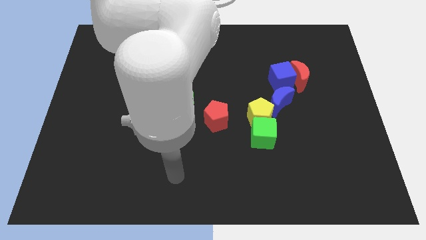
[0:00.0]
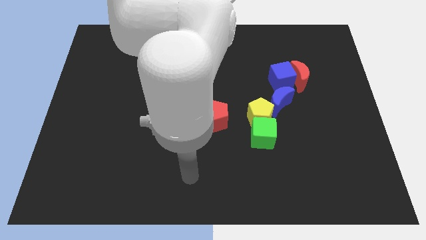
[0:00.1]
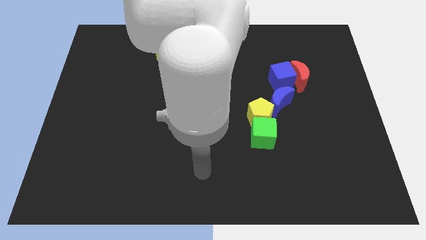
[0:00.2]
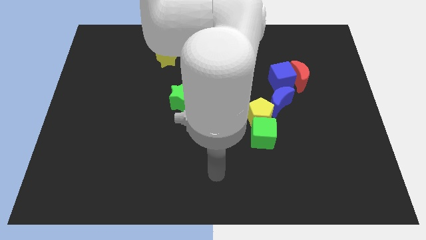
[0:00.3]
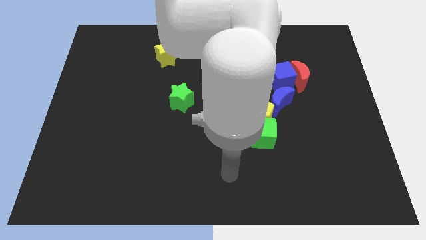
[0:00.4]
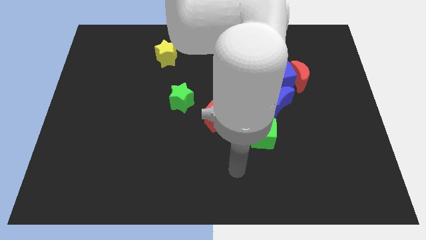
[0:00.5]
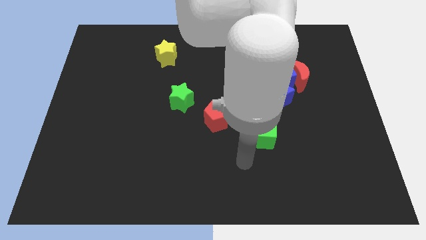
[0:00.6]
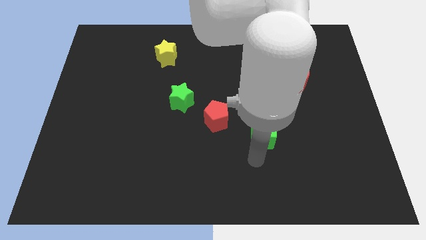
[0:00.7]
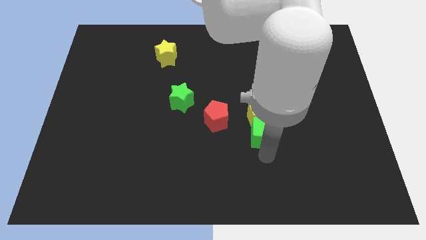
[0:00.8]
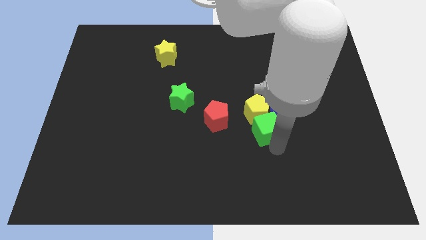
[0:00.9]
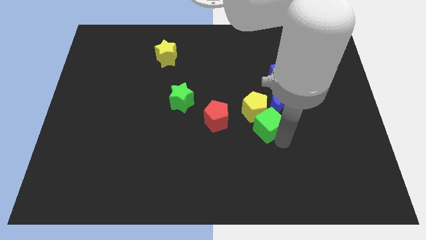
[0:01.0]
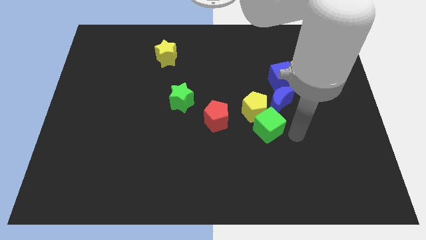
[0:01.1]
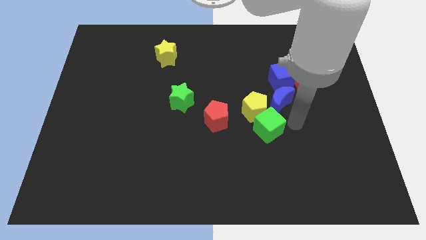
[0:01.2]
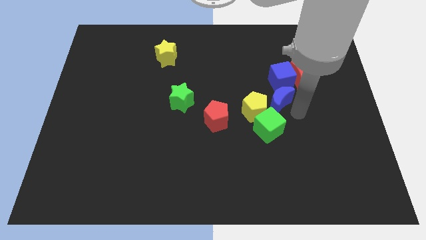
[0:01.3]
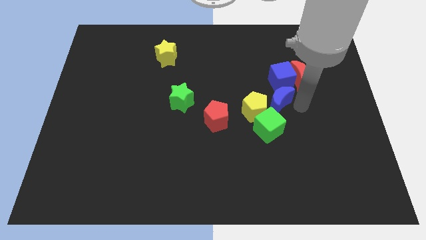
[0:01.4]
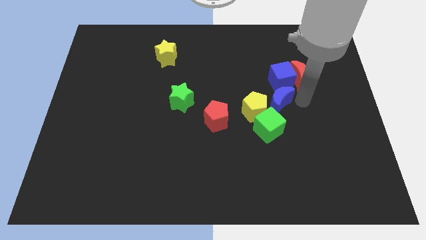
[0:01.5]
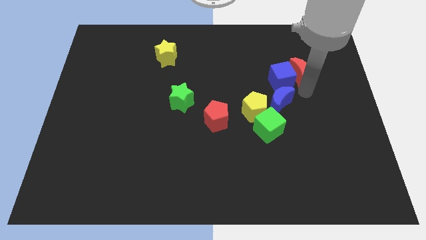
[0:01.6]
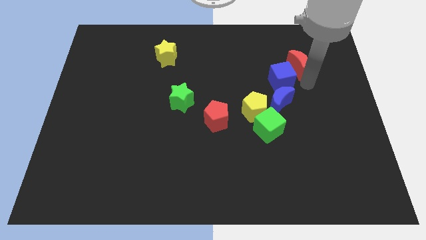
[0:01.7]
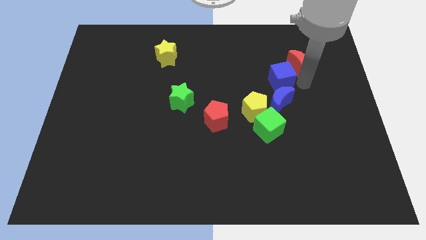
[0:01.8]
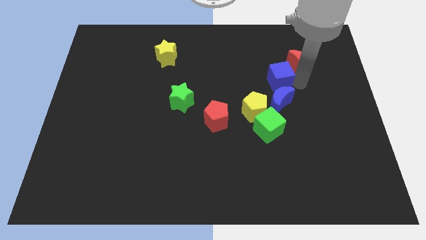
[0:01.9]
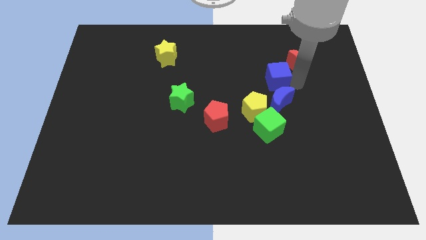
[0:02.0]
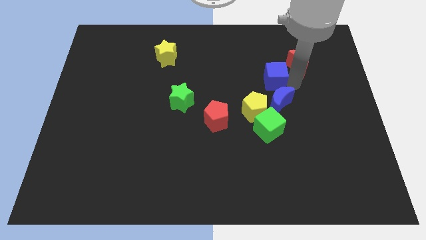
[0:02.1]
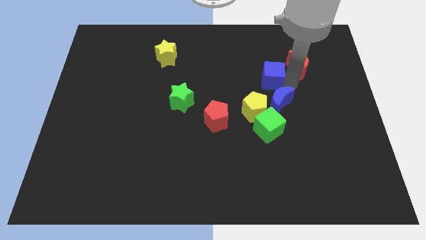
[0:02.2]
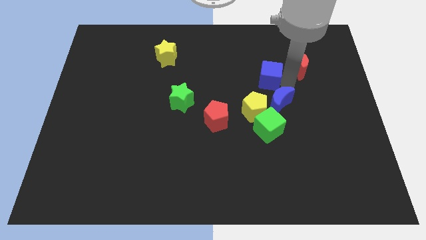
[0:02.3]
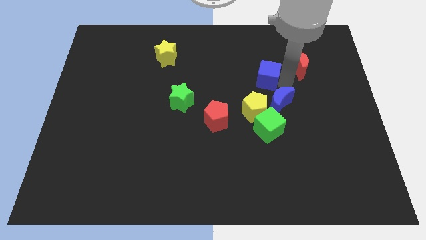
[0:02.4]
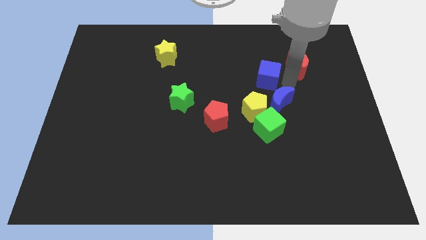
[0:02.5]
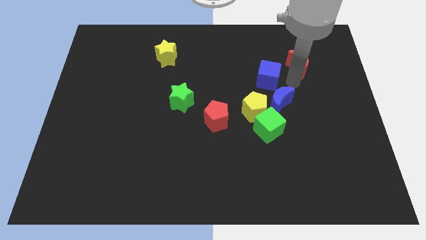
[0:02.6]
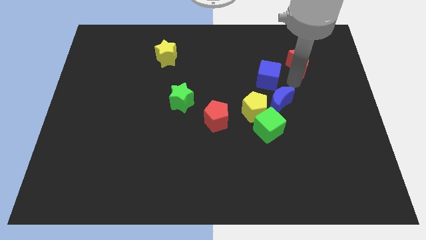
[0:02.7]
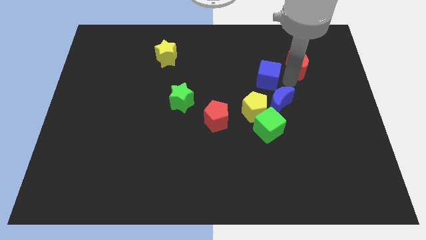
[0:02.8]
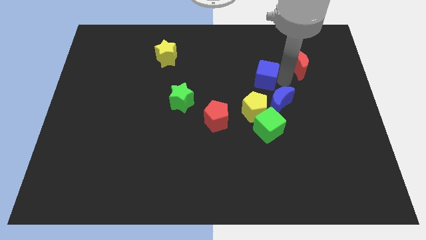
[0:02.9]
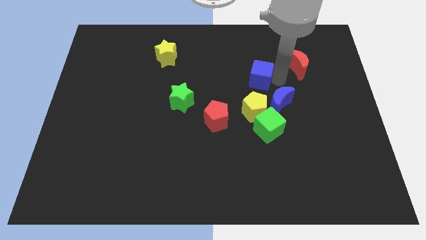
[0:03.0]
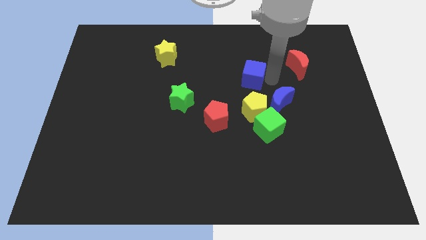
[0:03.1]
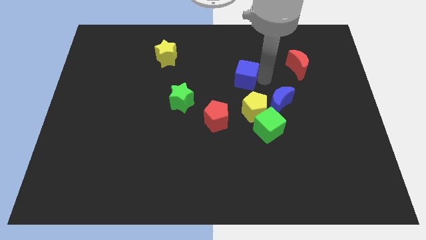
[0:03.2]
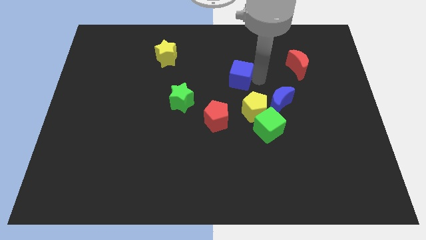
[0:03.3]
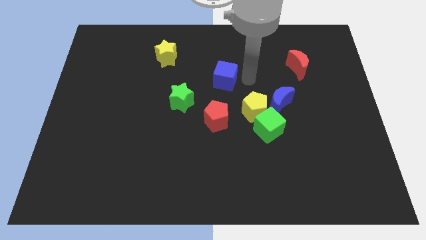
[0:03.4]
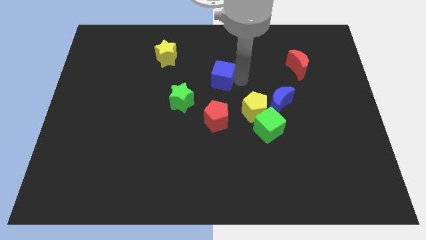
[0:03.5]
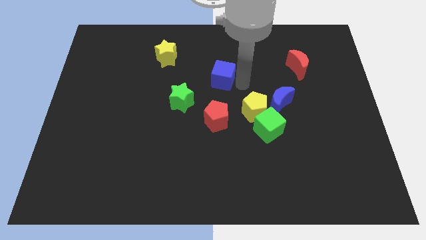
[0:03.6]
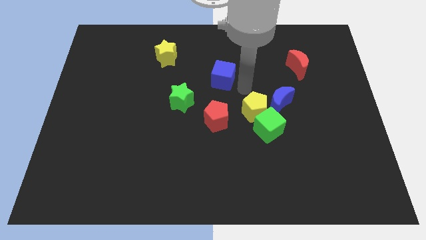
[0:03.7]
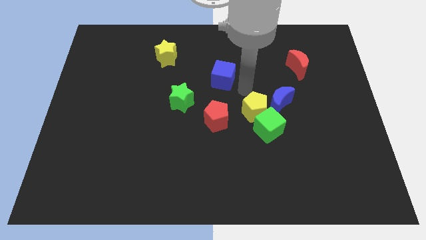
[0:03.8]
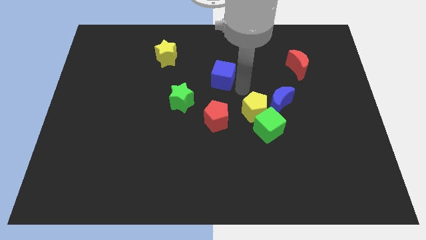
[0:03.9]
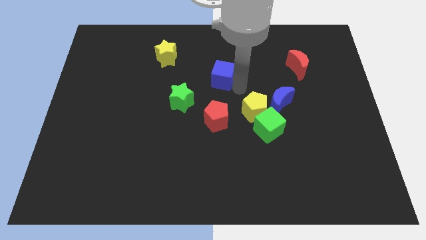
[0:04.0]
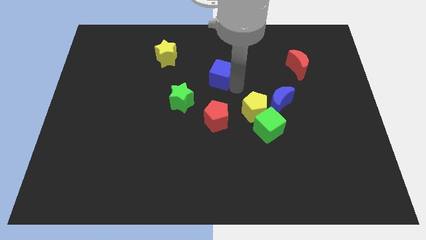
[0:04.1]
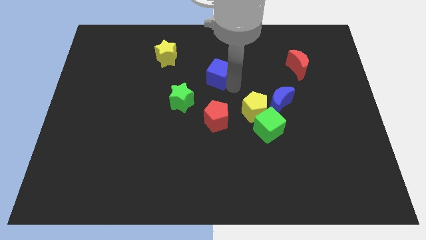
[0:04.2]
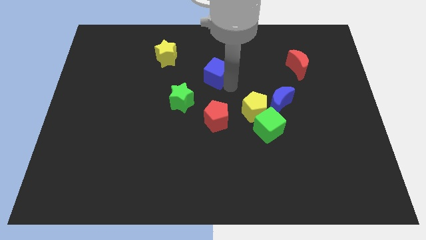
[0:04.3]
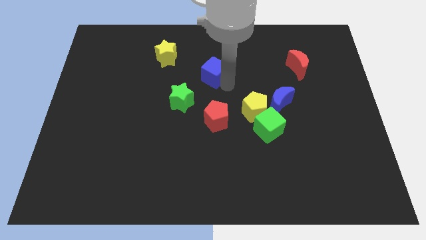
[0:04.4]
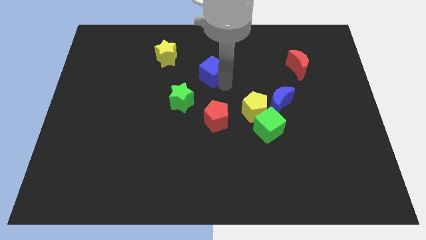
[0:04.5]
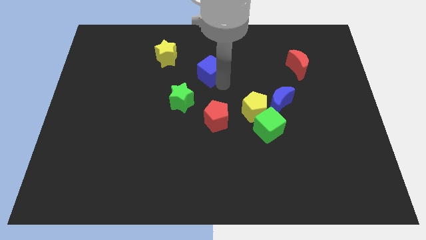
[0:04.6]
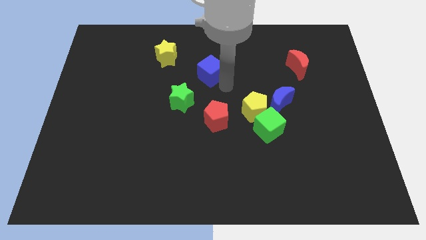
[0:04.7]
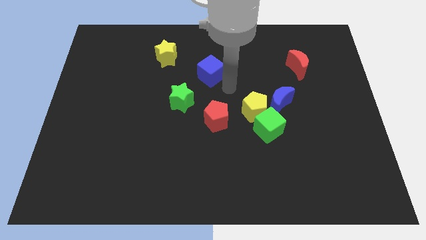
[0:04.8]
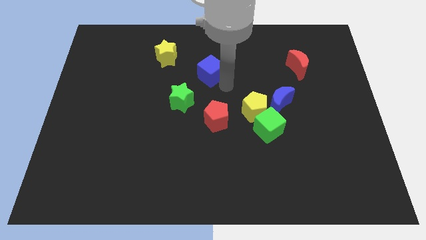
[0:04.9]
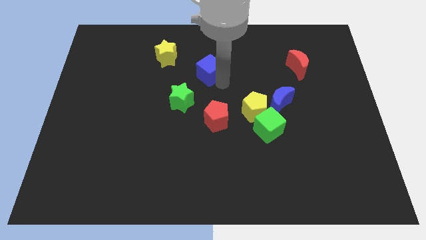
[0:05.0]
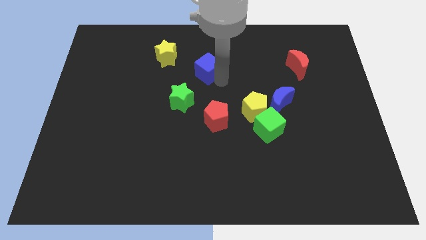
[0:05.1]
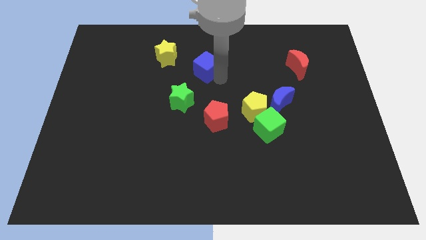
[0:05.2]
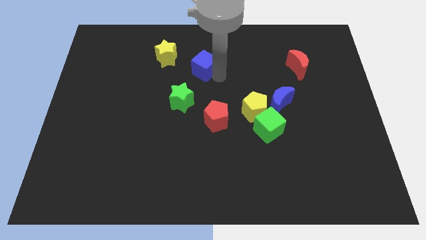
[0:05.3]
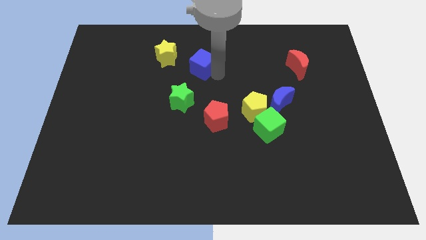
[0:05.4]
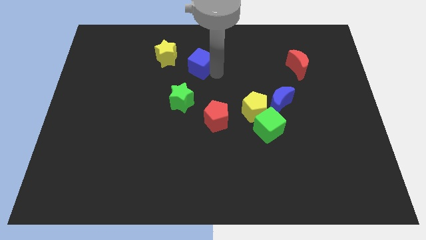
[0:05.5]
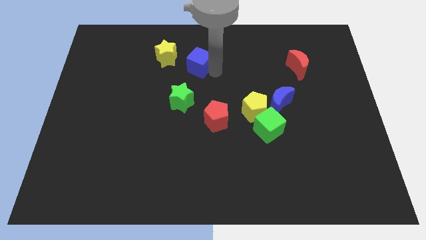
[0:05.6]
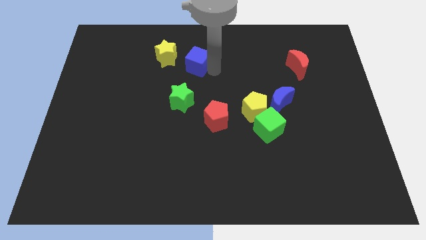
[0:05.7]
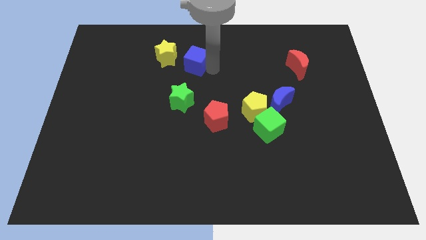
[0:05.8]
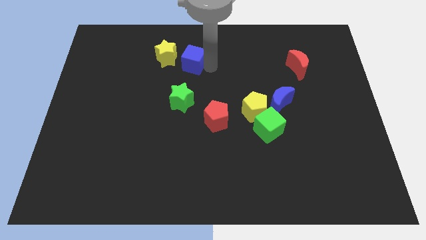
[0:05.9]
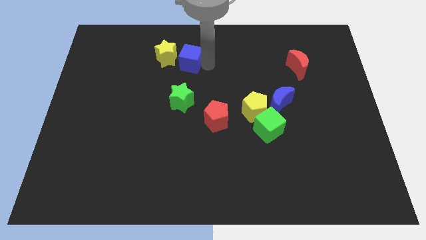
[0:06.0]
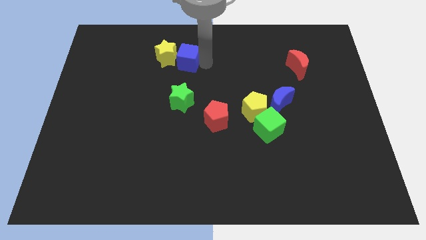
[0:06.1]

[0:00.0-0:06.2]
move the blue cube towards the yellow star

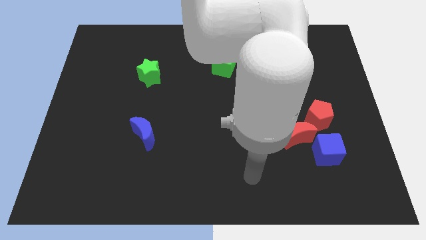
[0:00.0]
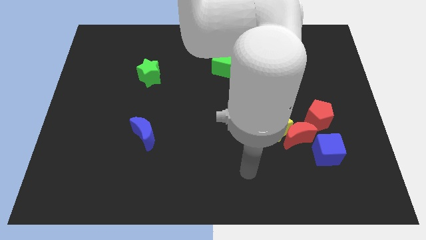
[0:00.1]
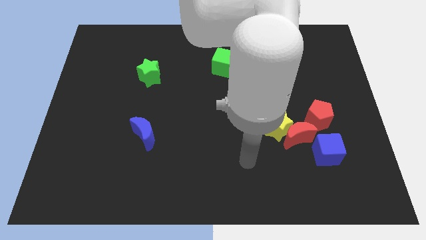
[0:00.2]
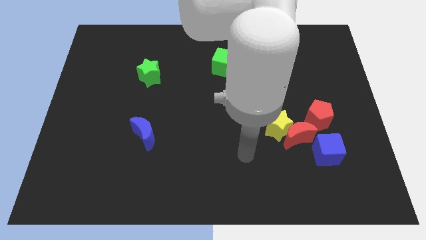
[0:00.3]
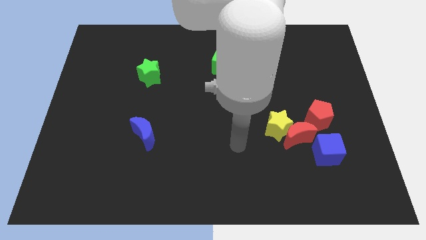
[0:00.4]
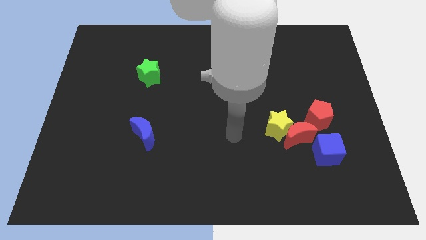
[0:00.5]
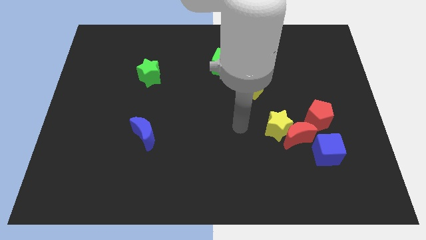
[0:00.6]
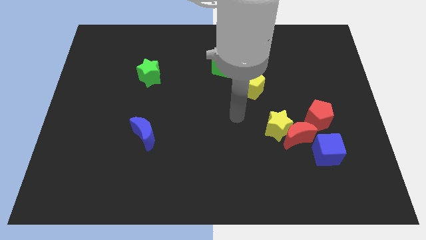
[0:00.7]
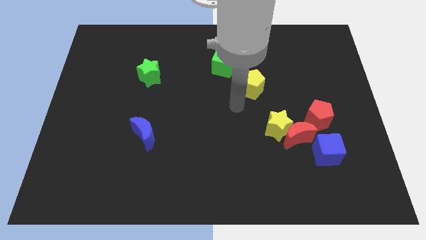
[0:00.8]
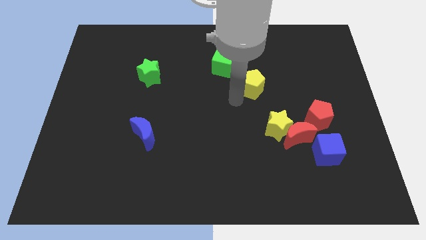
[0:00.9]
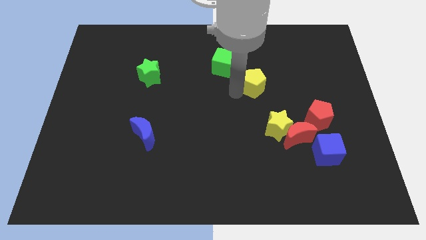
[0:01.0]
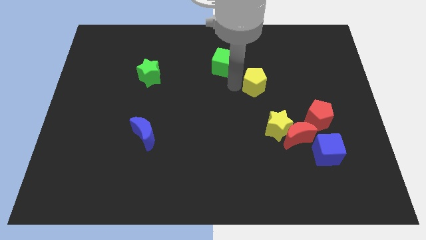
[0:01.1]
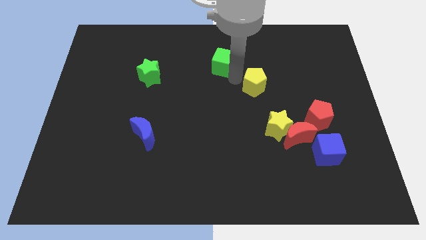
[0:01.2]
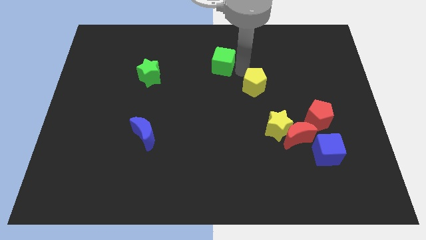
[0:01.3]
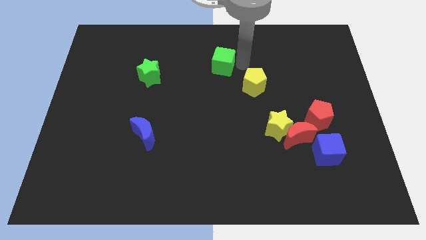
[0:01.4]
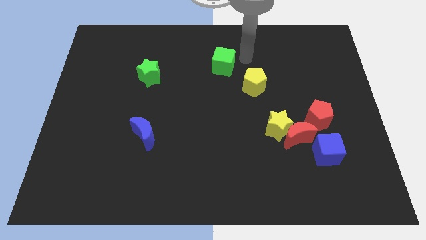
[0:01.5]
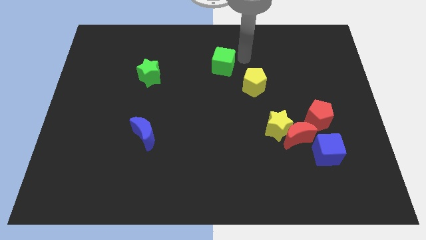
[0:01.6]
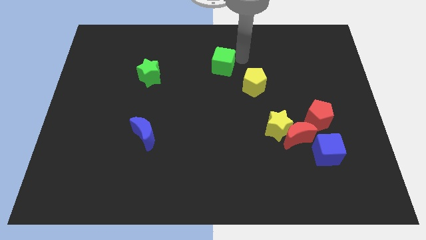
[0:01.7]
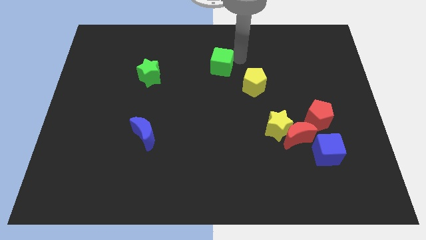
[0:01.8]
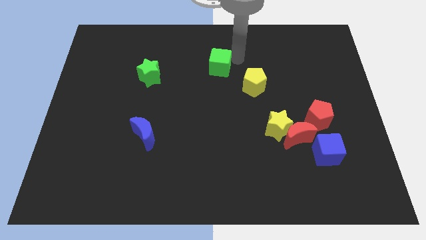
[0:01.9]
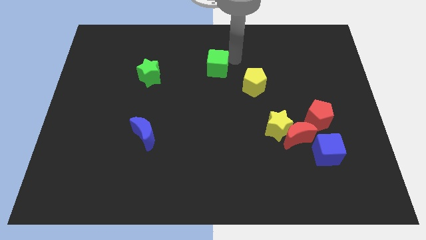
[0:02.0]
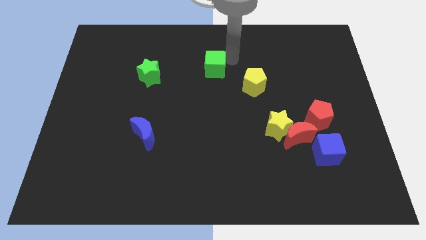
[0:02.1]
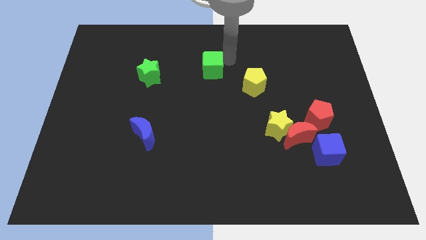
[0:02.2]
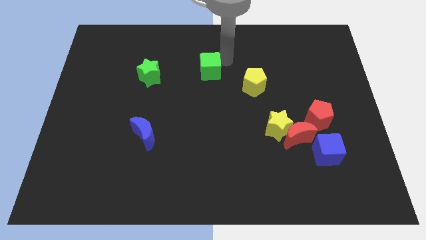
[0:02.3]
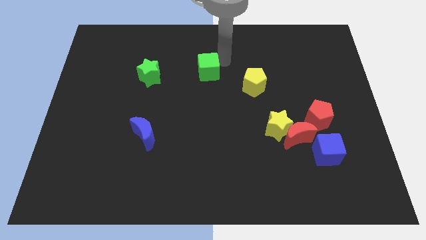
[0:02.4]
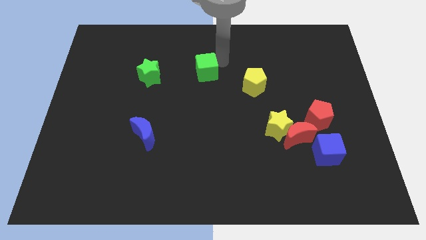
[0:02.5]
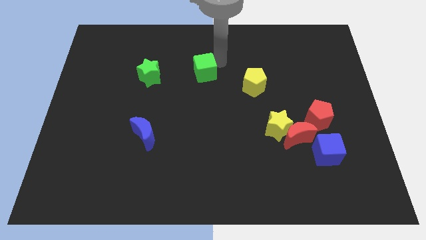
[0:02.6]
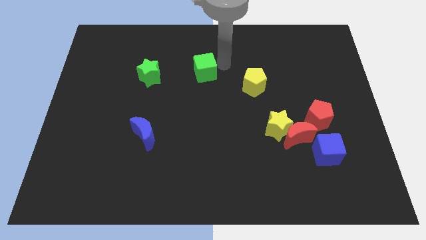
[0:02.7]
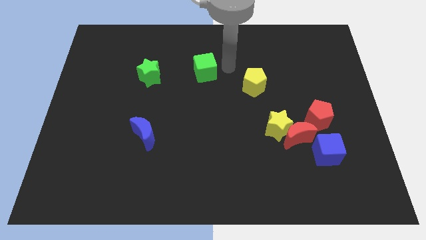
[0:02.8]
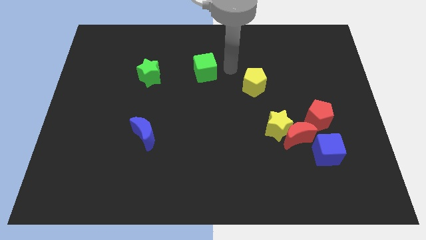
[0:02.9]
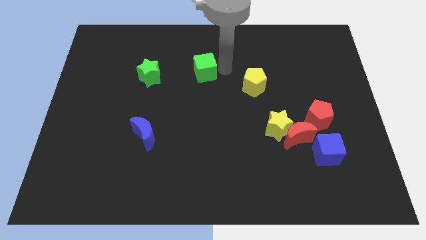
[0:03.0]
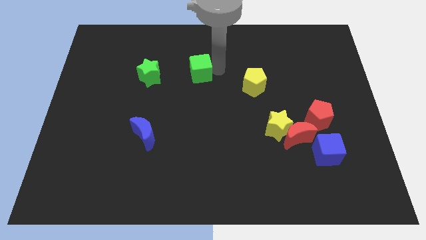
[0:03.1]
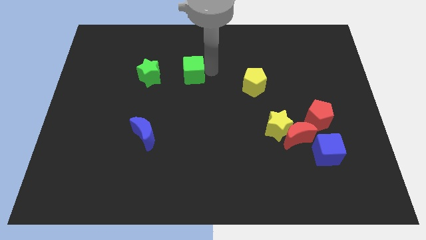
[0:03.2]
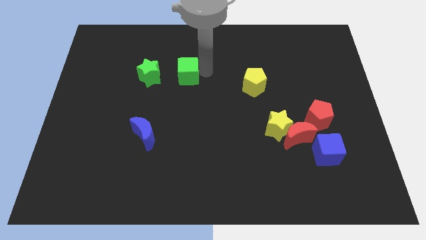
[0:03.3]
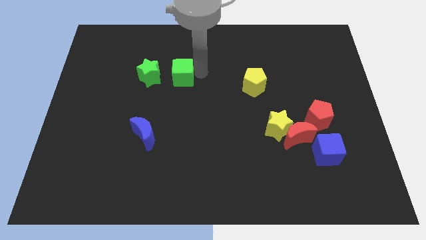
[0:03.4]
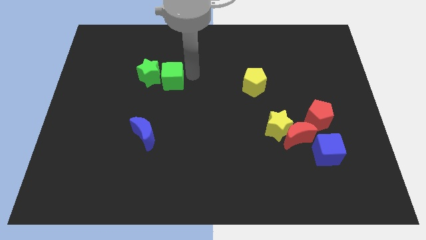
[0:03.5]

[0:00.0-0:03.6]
slide the green cube close to the green star
